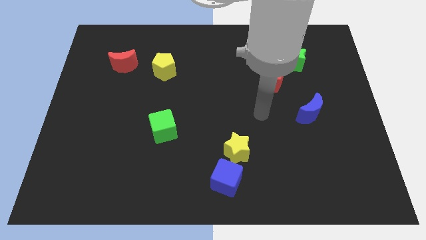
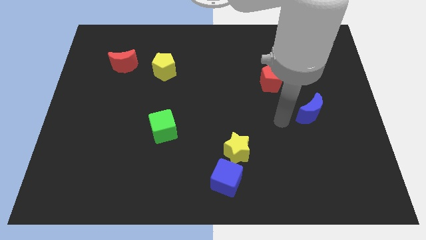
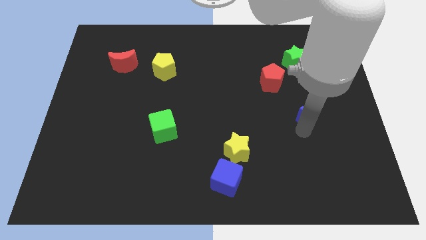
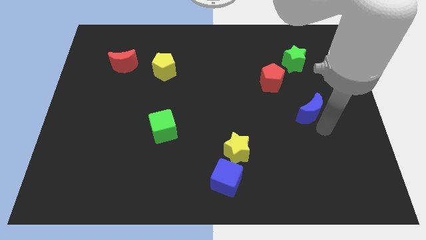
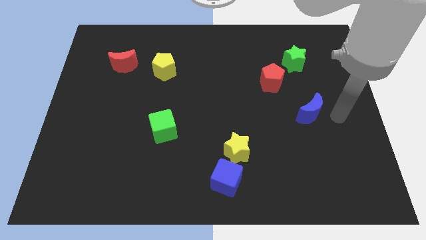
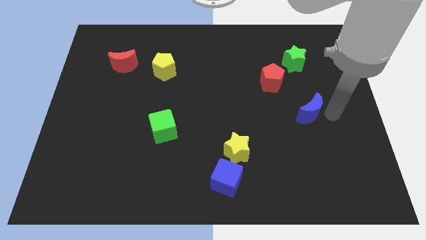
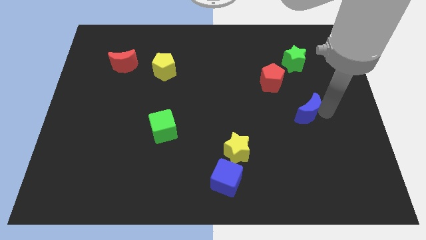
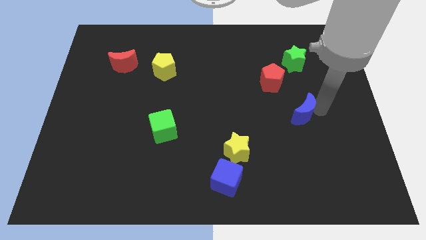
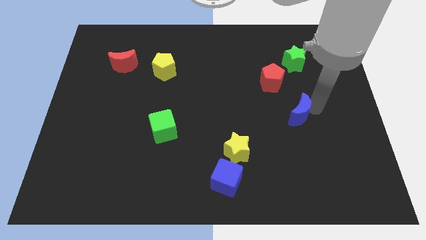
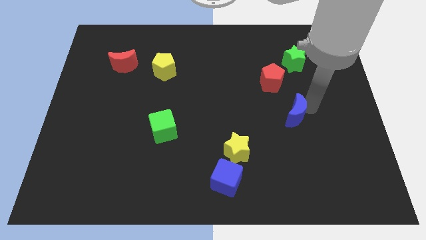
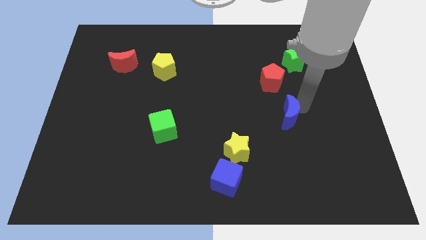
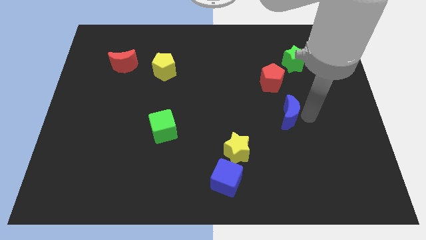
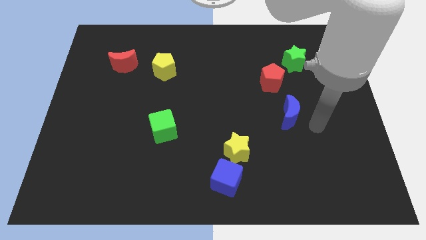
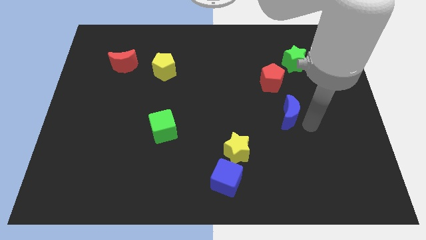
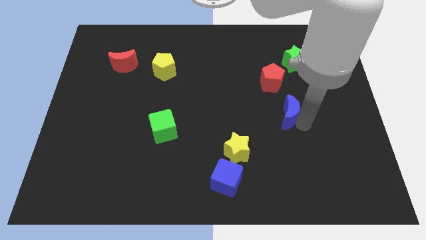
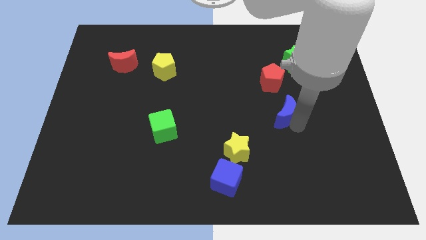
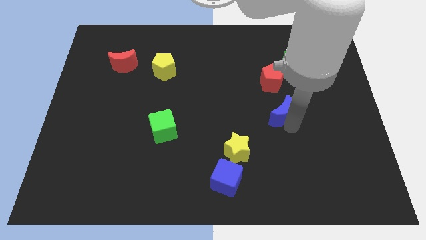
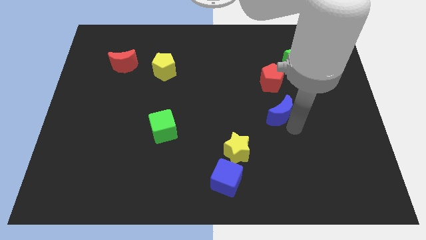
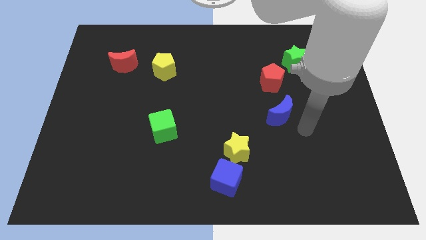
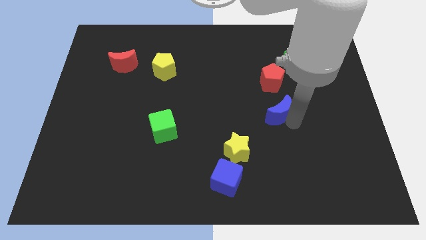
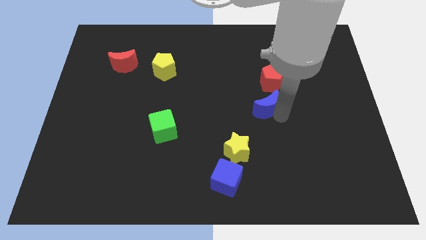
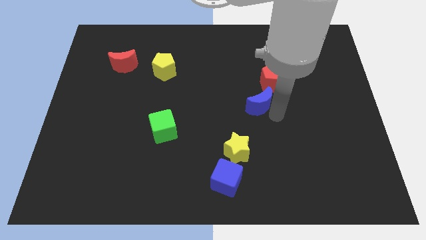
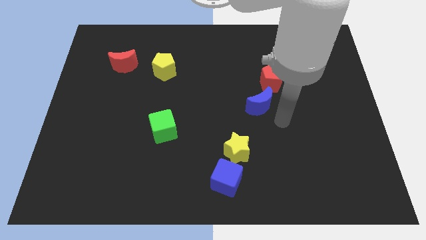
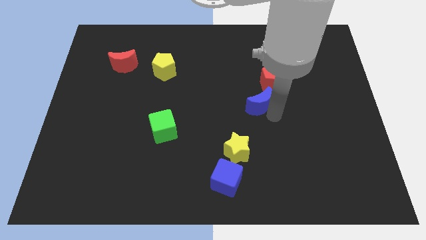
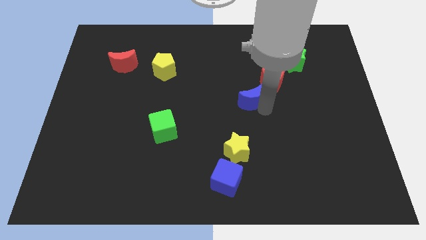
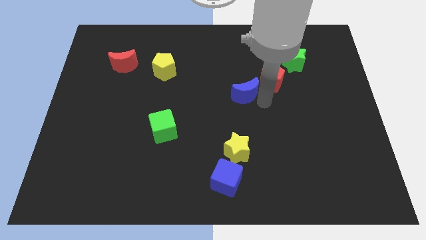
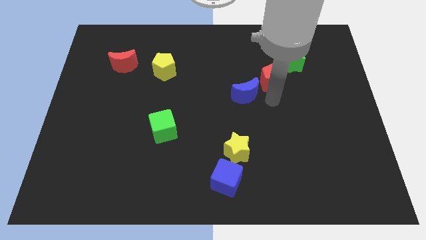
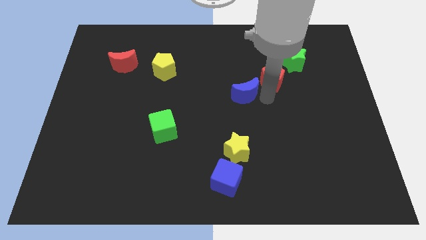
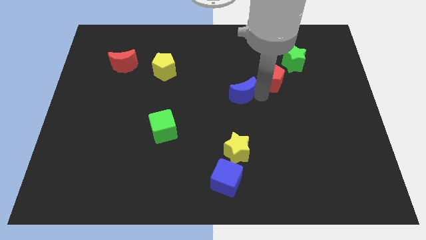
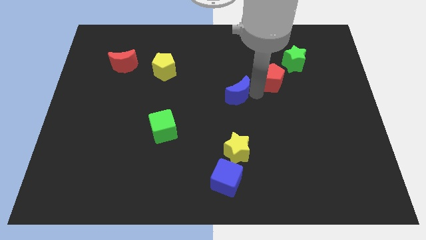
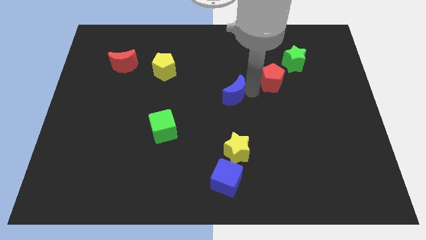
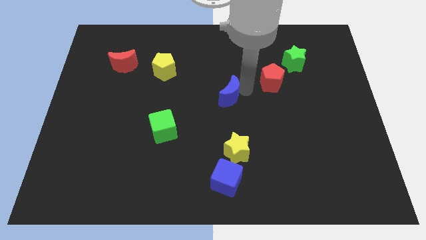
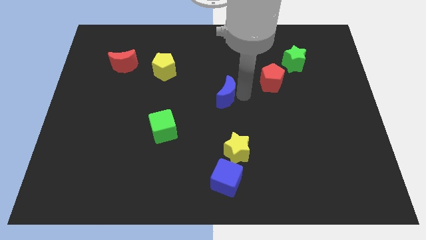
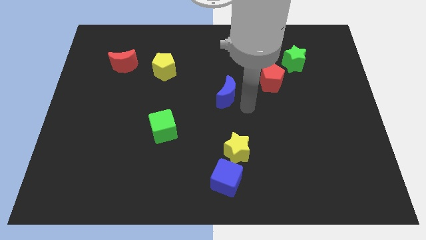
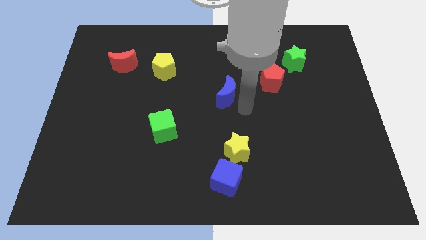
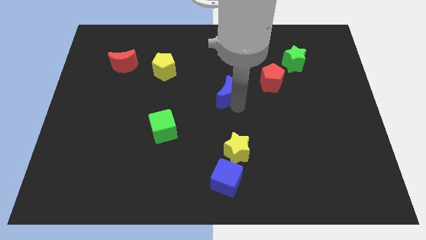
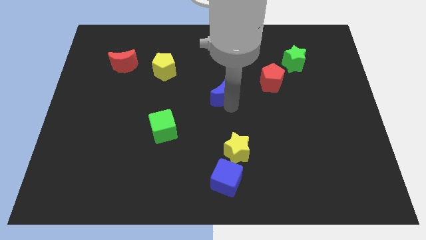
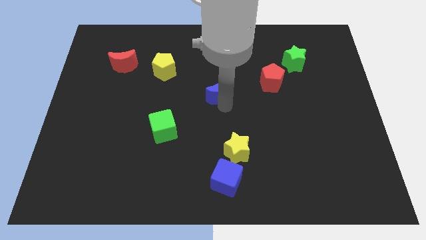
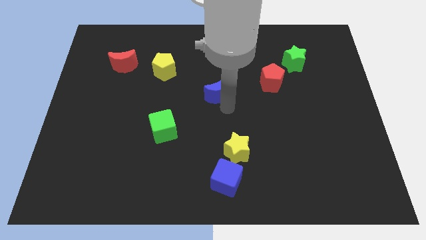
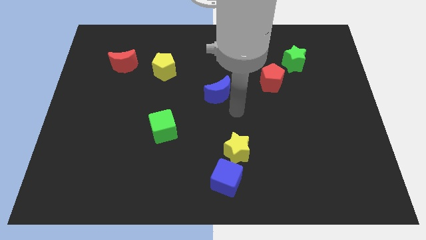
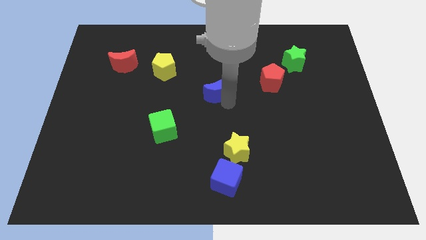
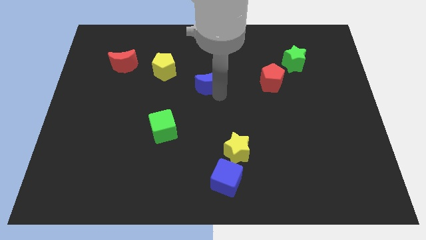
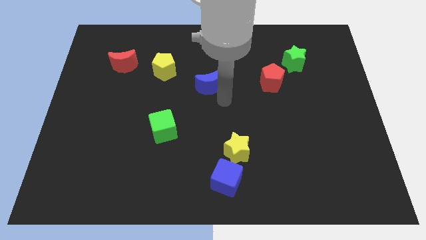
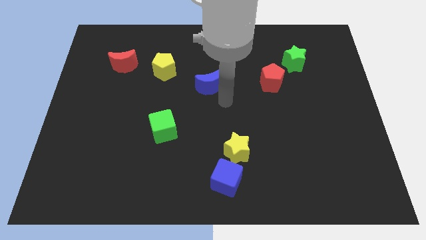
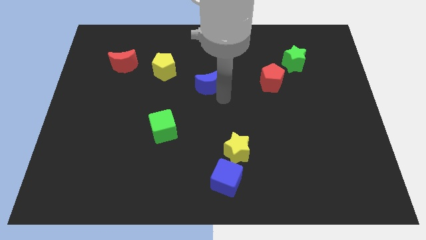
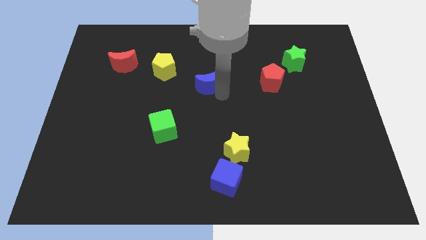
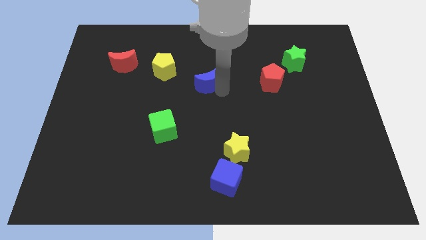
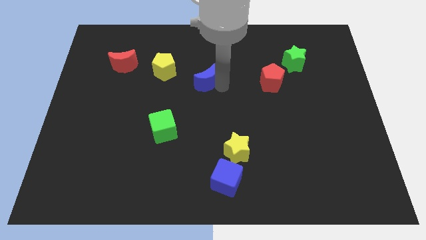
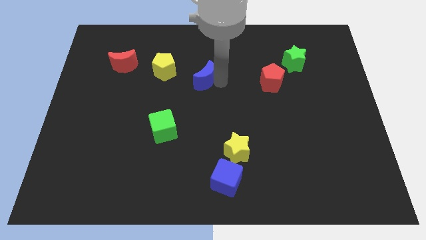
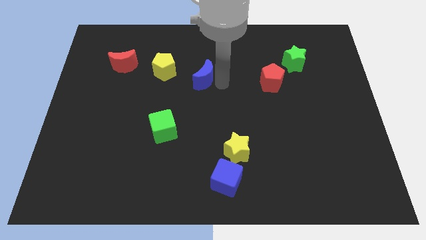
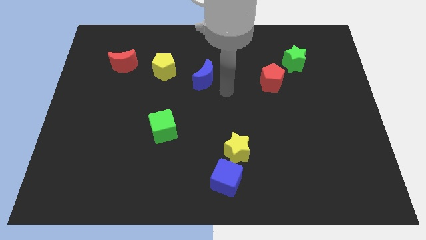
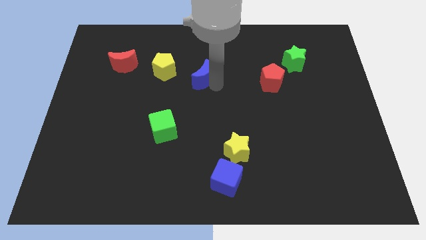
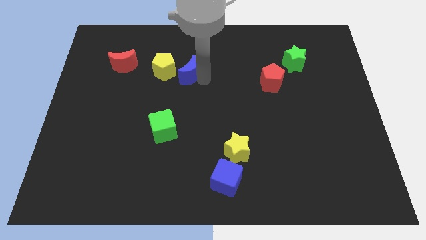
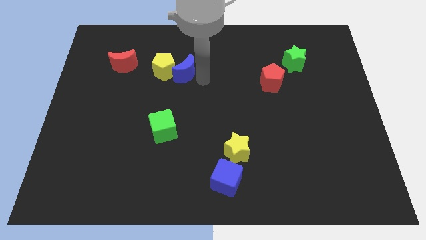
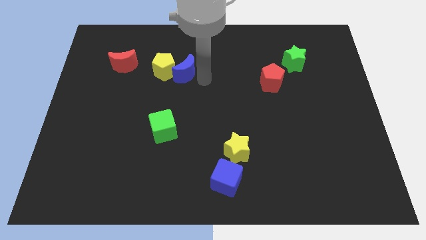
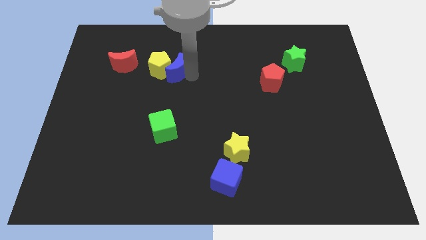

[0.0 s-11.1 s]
slide the blue moon just right of the red moon
